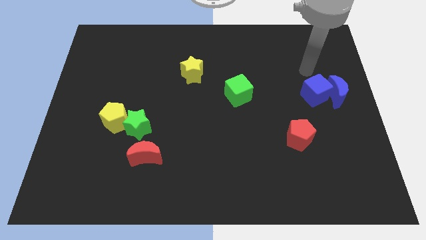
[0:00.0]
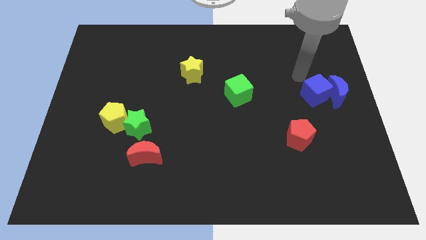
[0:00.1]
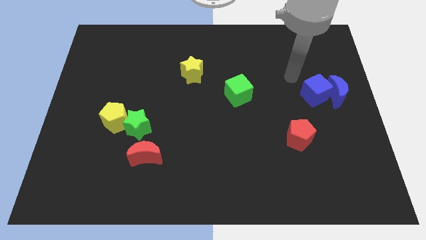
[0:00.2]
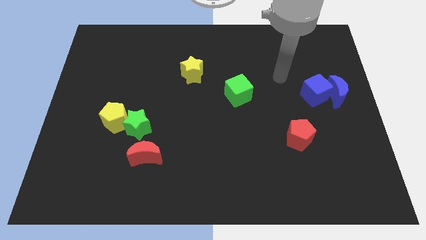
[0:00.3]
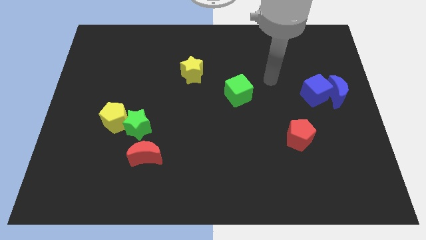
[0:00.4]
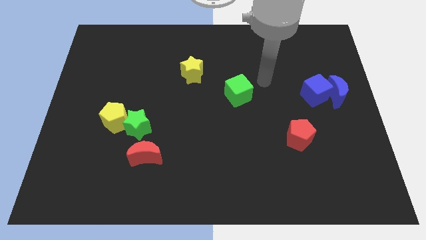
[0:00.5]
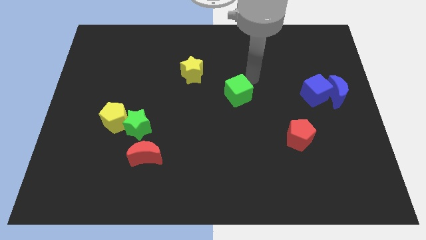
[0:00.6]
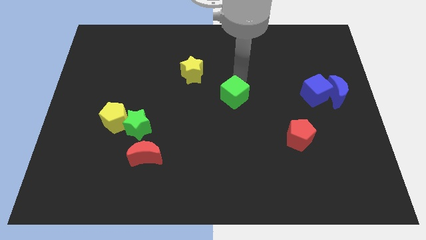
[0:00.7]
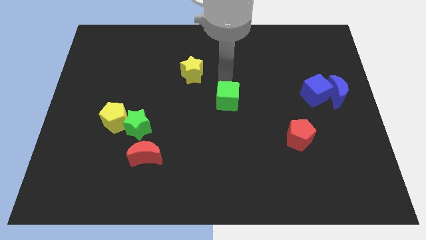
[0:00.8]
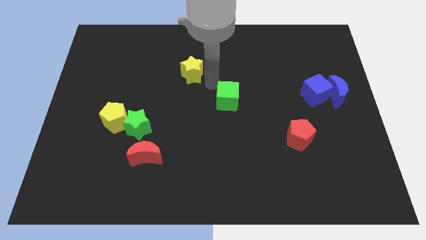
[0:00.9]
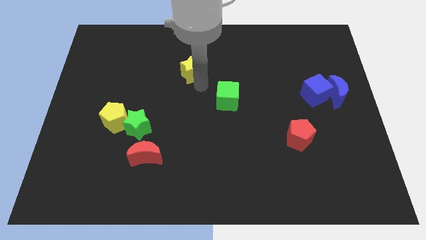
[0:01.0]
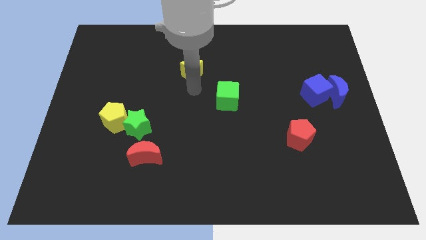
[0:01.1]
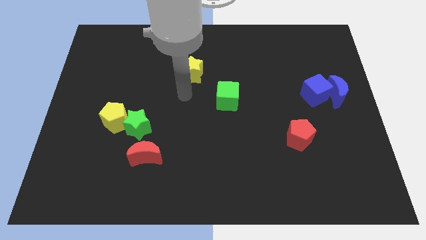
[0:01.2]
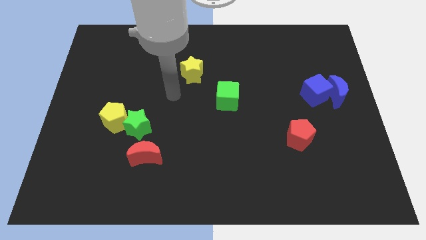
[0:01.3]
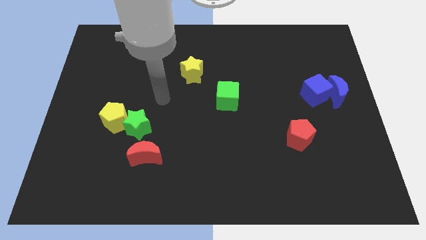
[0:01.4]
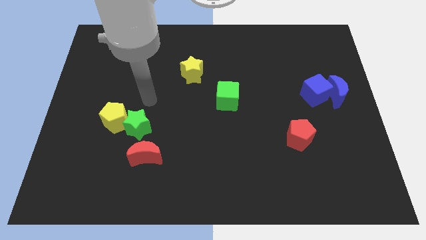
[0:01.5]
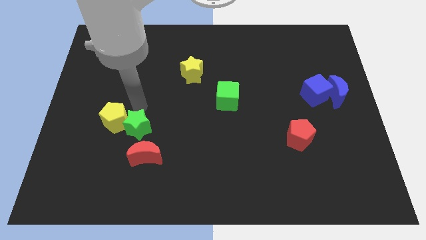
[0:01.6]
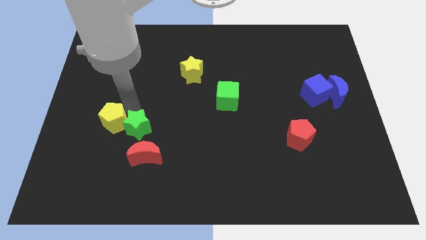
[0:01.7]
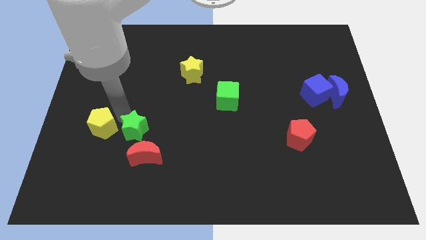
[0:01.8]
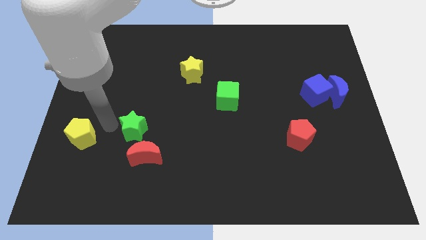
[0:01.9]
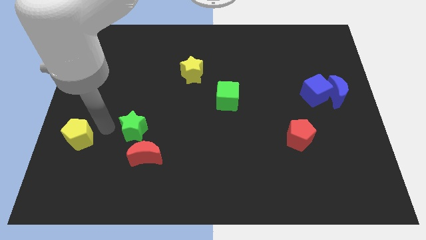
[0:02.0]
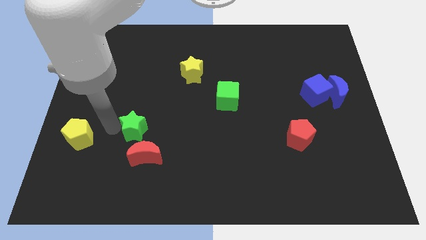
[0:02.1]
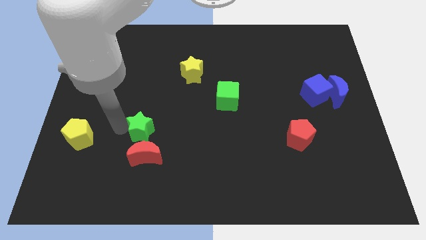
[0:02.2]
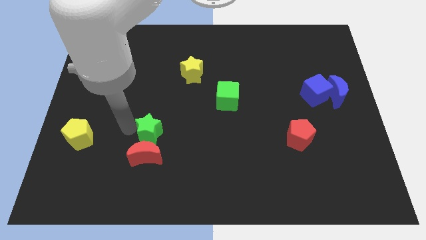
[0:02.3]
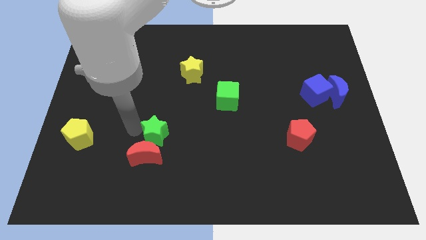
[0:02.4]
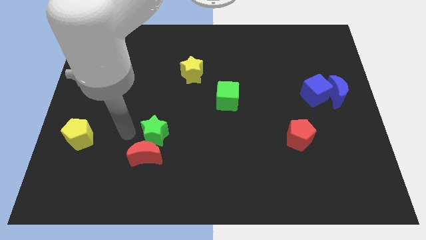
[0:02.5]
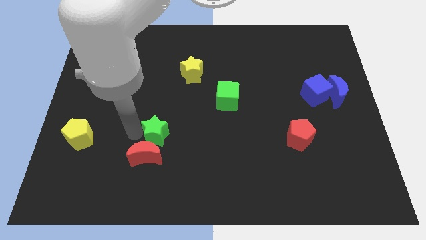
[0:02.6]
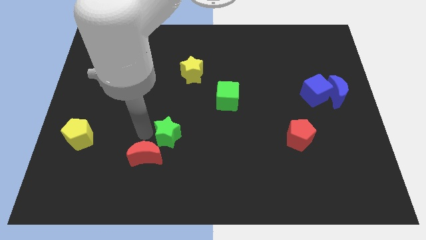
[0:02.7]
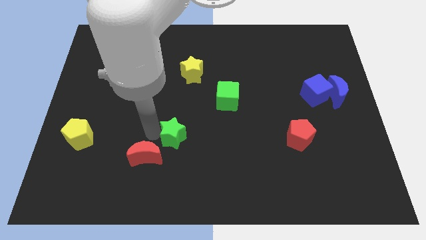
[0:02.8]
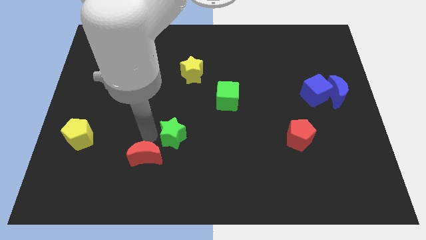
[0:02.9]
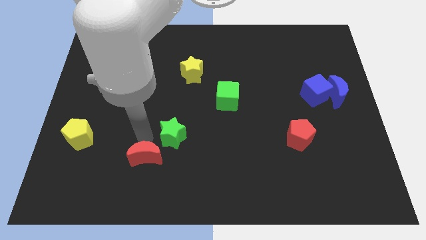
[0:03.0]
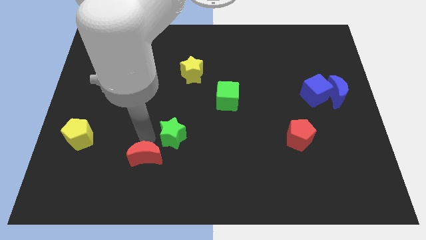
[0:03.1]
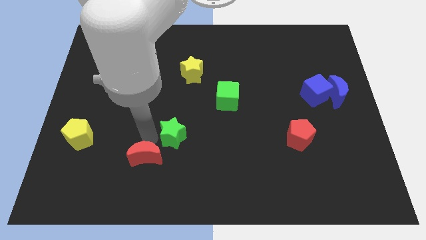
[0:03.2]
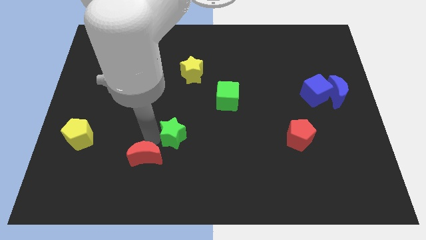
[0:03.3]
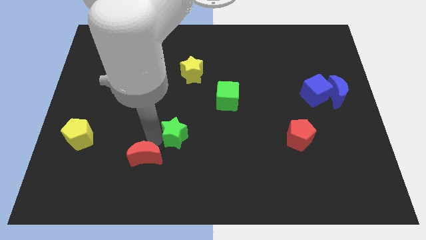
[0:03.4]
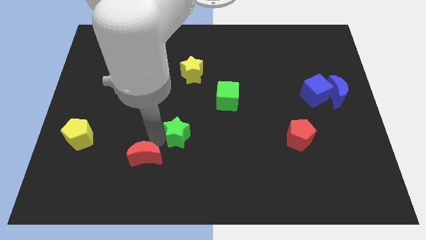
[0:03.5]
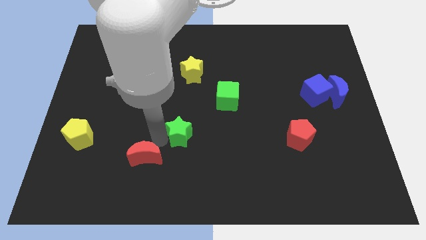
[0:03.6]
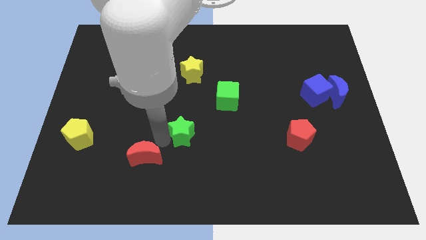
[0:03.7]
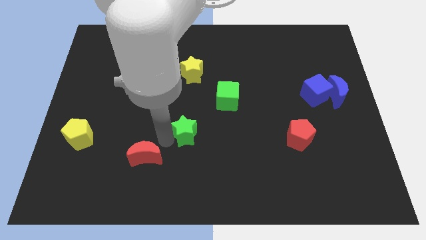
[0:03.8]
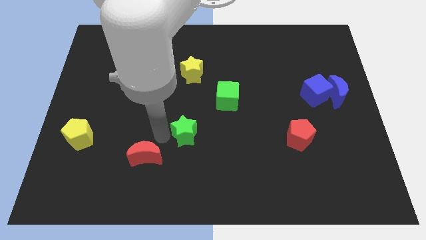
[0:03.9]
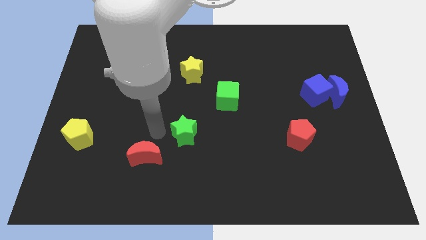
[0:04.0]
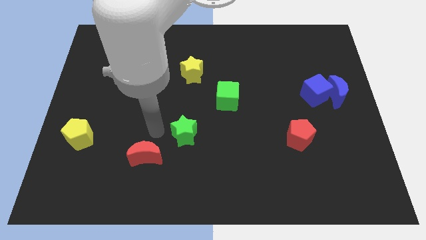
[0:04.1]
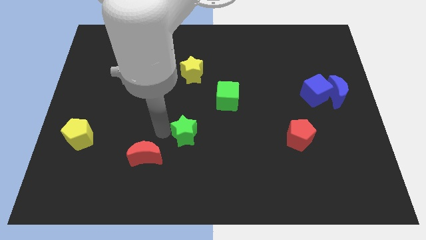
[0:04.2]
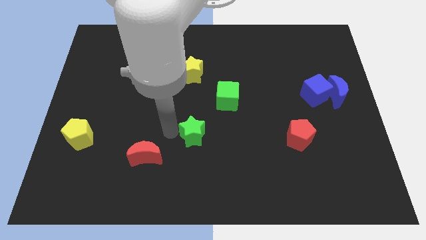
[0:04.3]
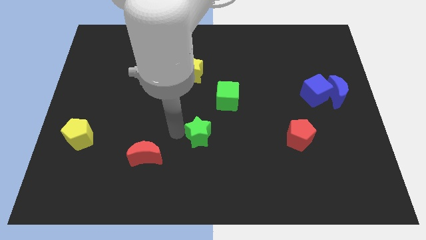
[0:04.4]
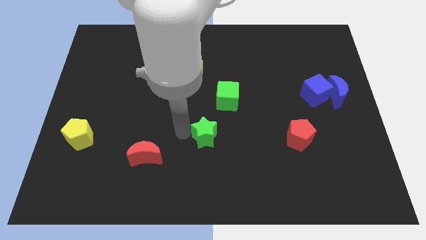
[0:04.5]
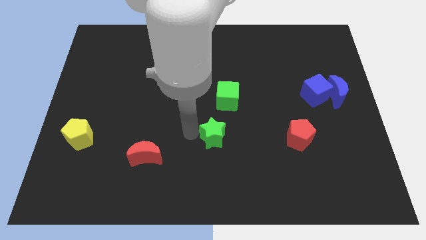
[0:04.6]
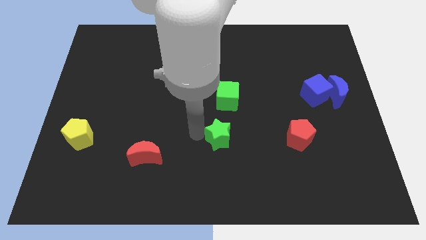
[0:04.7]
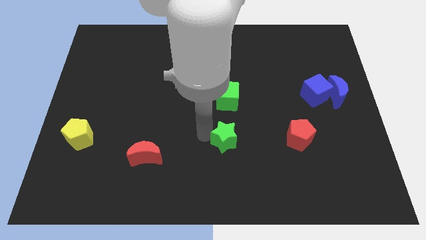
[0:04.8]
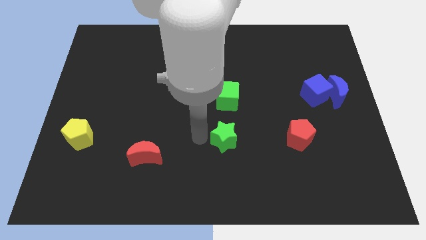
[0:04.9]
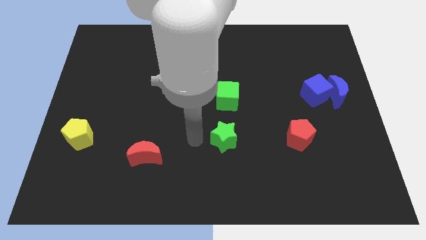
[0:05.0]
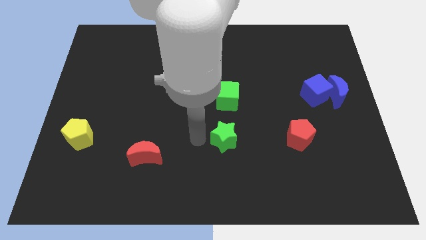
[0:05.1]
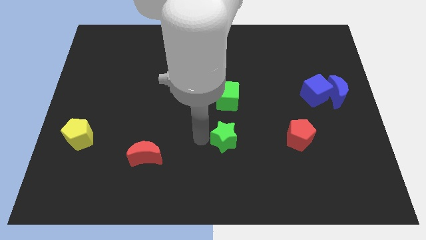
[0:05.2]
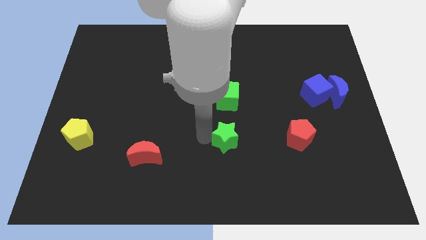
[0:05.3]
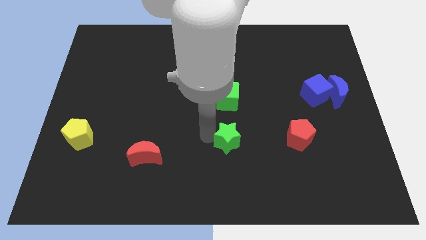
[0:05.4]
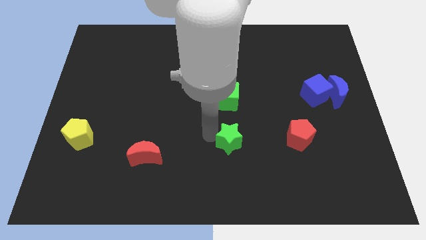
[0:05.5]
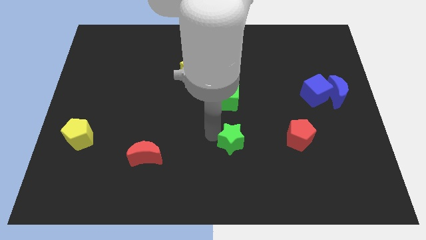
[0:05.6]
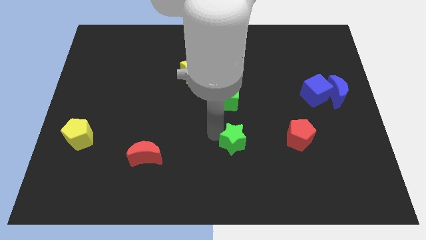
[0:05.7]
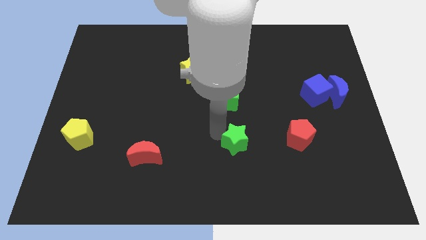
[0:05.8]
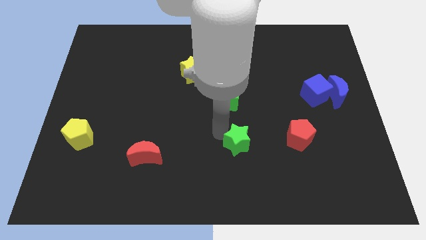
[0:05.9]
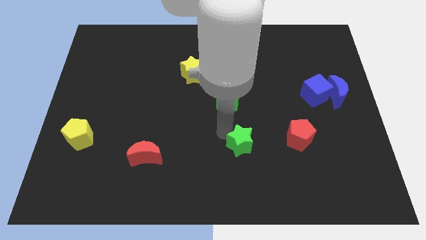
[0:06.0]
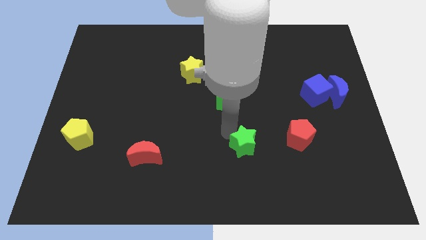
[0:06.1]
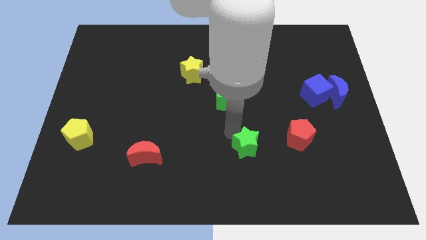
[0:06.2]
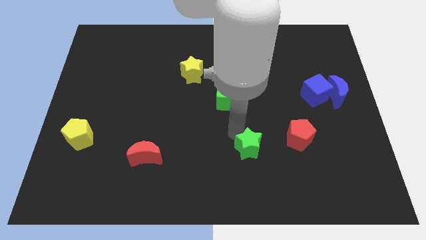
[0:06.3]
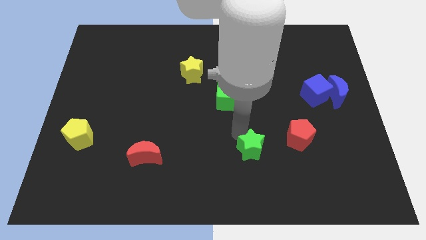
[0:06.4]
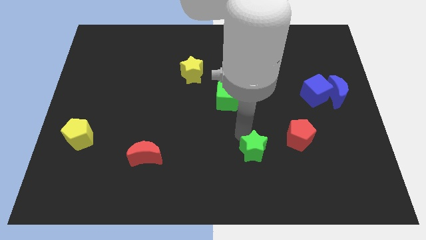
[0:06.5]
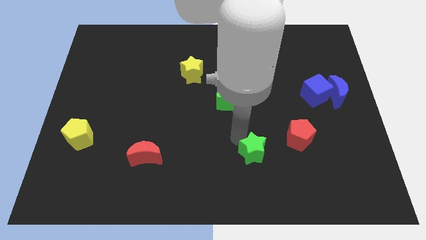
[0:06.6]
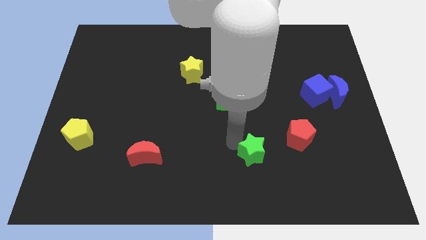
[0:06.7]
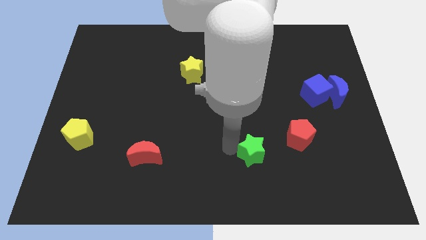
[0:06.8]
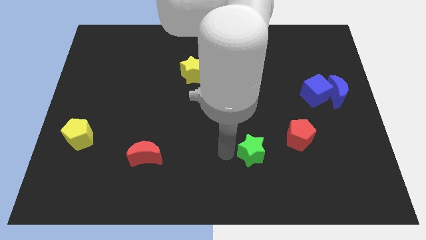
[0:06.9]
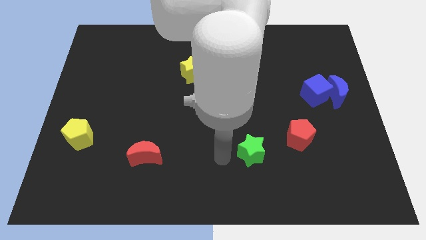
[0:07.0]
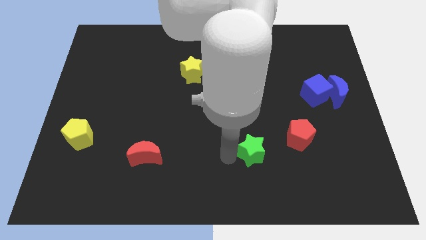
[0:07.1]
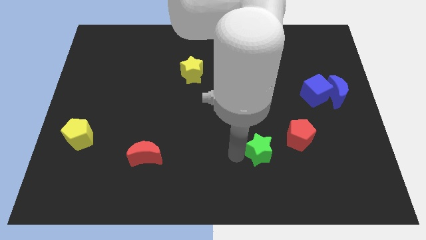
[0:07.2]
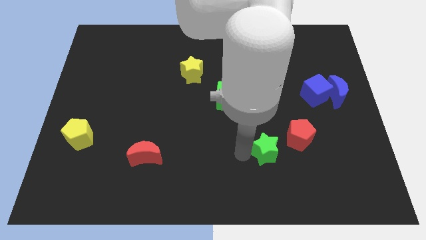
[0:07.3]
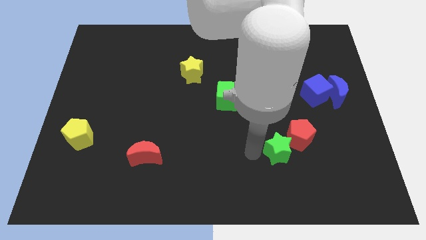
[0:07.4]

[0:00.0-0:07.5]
push the green star next to the red pentagon
